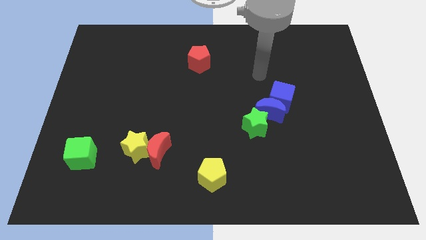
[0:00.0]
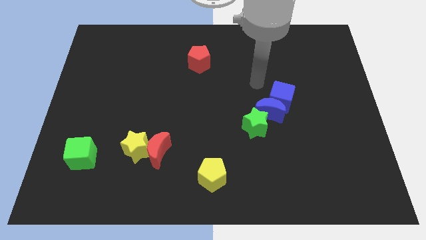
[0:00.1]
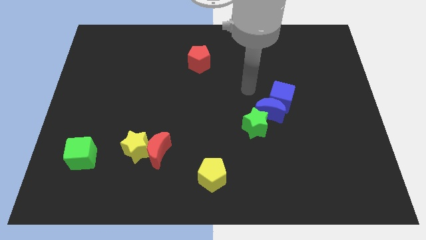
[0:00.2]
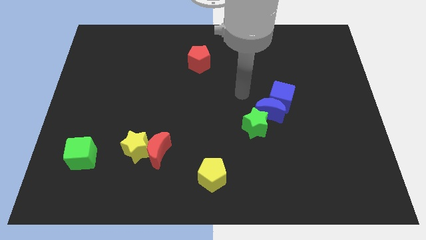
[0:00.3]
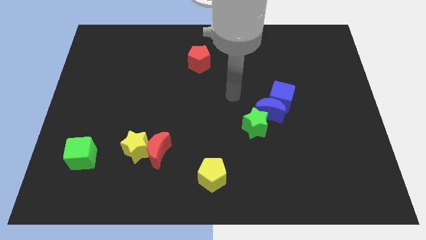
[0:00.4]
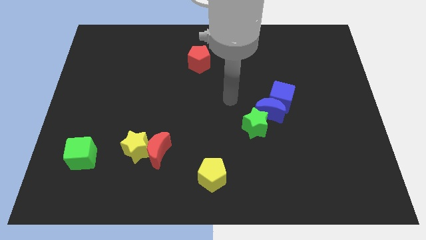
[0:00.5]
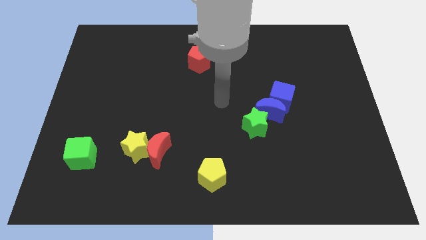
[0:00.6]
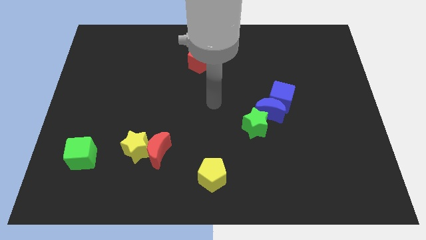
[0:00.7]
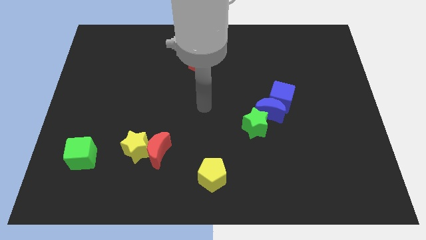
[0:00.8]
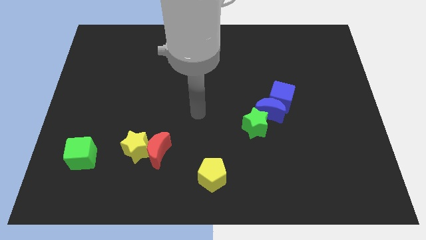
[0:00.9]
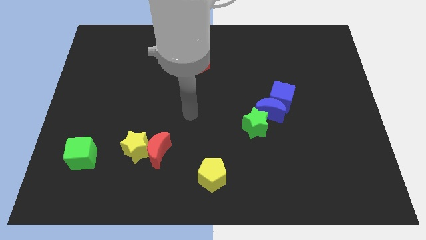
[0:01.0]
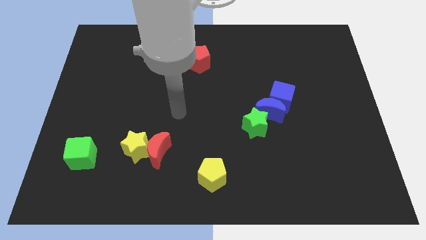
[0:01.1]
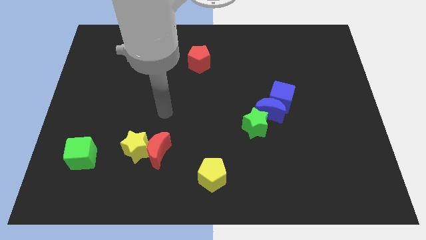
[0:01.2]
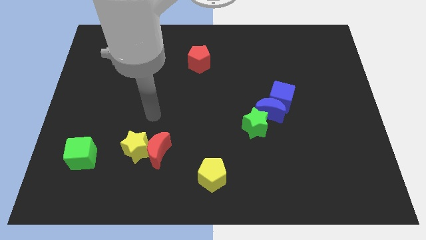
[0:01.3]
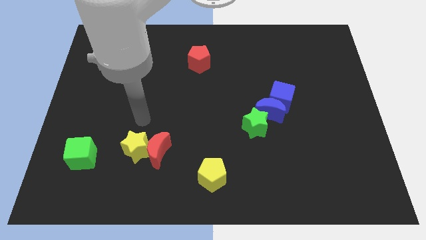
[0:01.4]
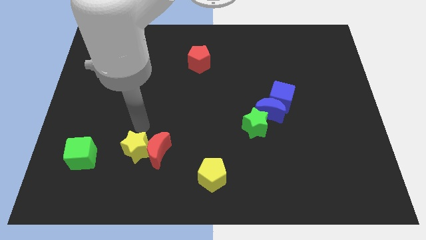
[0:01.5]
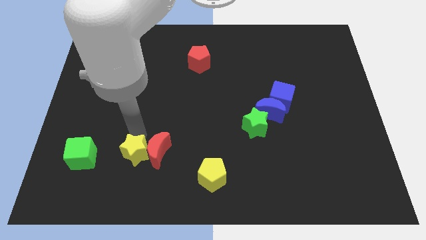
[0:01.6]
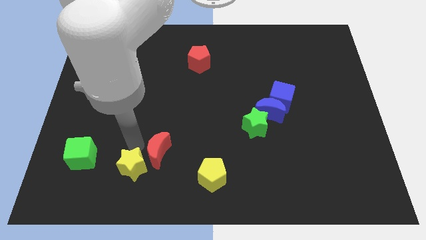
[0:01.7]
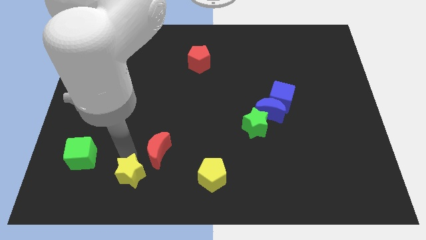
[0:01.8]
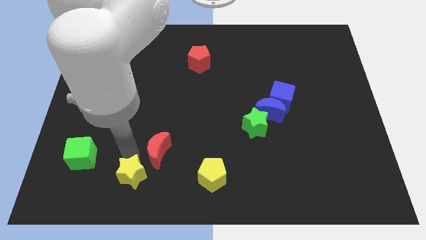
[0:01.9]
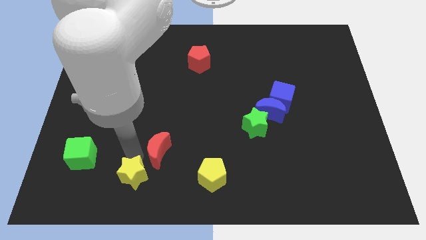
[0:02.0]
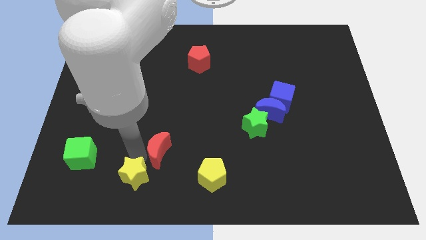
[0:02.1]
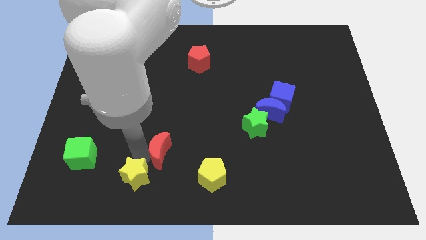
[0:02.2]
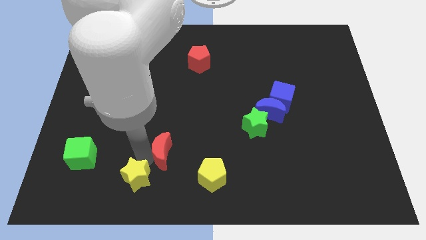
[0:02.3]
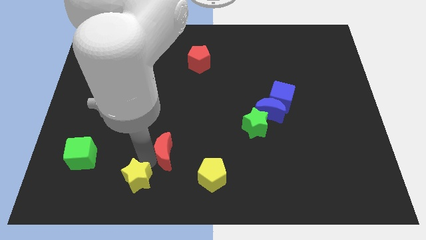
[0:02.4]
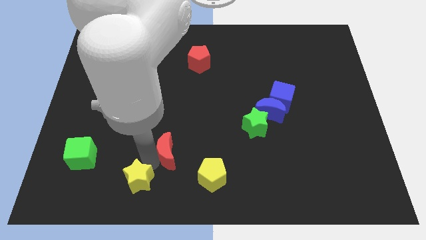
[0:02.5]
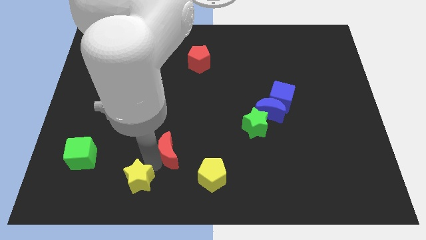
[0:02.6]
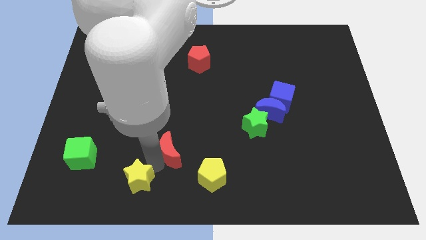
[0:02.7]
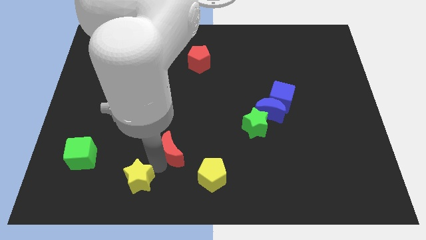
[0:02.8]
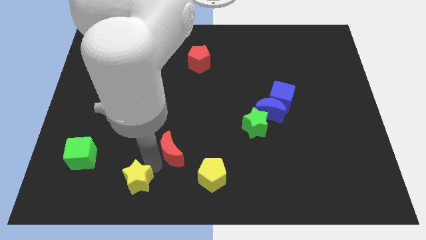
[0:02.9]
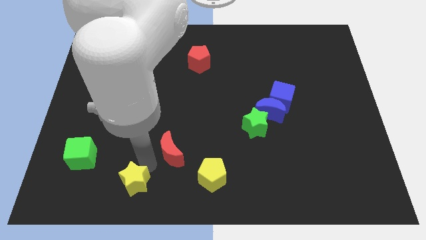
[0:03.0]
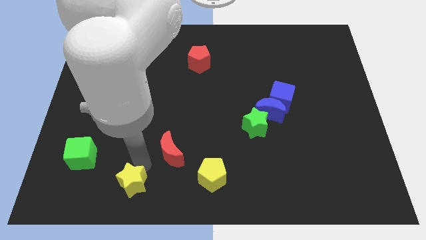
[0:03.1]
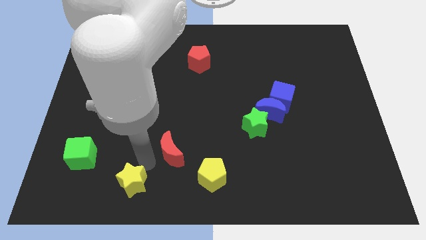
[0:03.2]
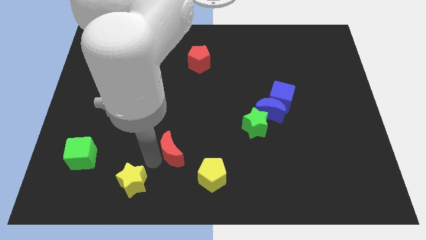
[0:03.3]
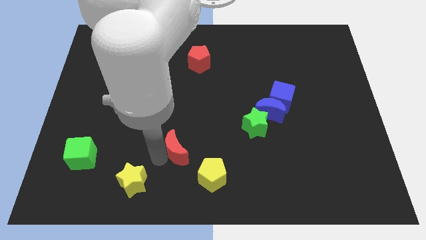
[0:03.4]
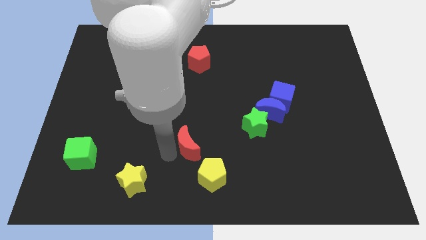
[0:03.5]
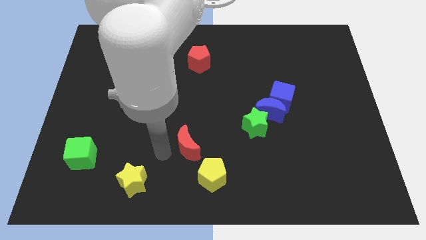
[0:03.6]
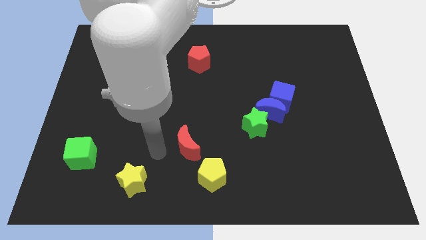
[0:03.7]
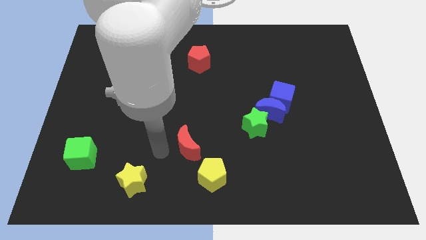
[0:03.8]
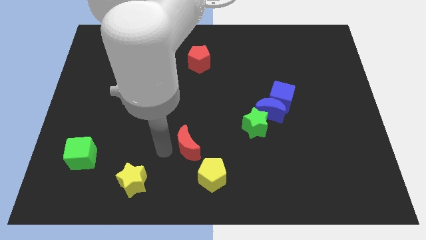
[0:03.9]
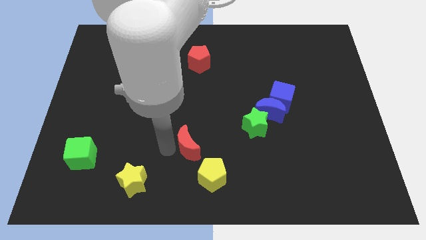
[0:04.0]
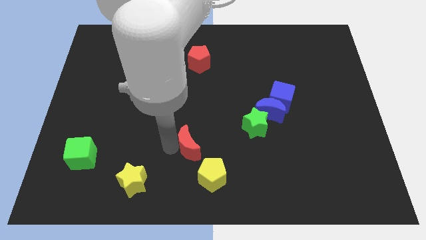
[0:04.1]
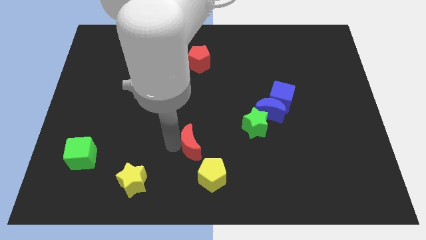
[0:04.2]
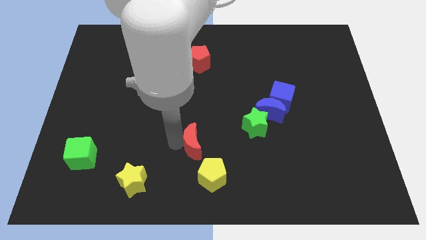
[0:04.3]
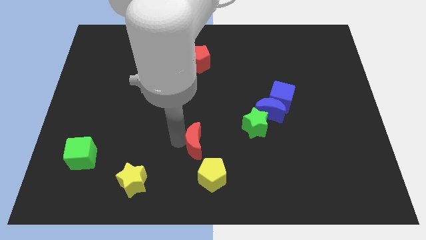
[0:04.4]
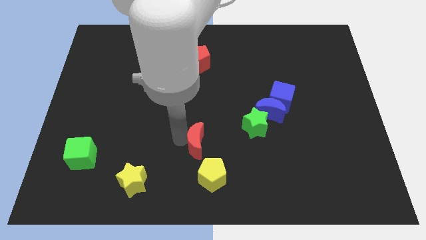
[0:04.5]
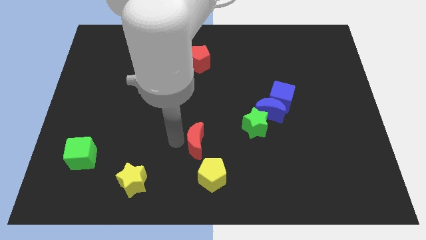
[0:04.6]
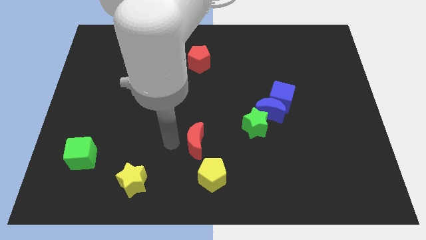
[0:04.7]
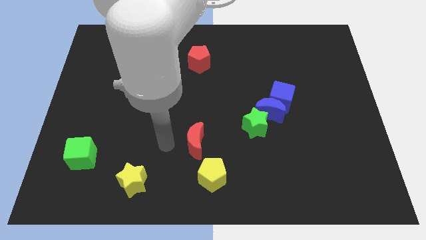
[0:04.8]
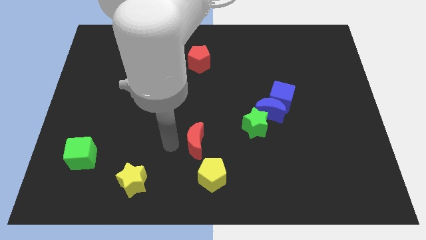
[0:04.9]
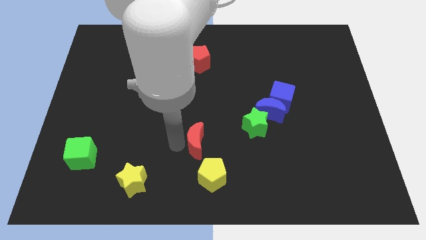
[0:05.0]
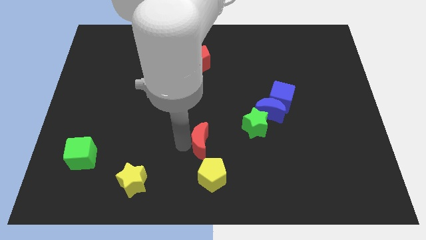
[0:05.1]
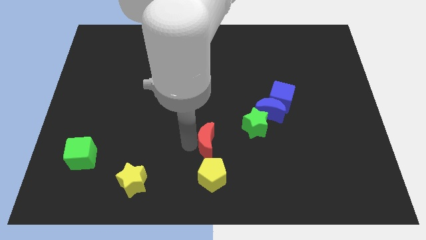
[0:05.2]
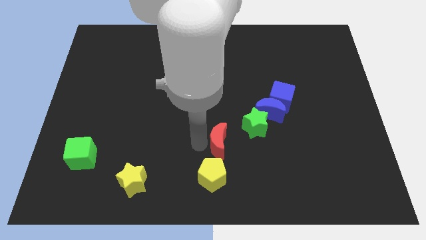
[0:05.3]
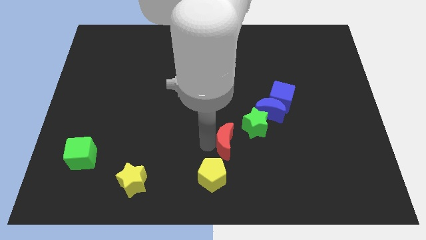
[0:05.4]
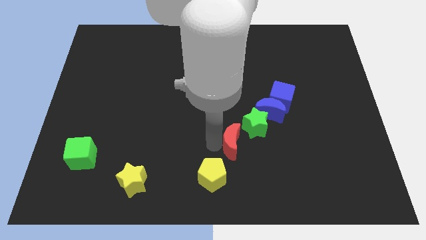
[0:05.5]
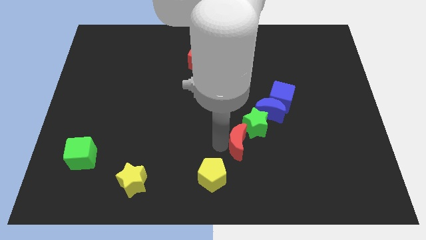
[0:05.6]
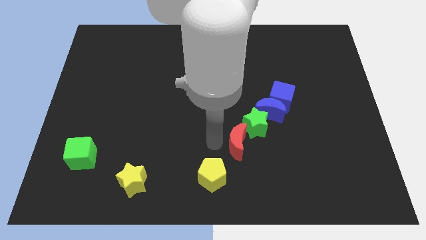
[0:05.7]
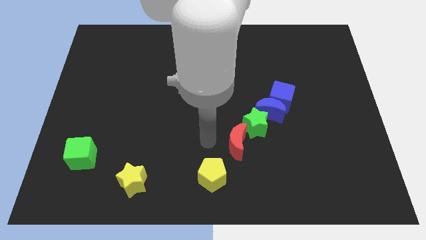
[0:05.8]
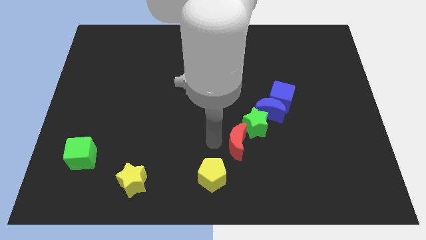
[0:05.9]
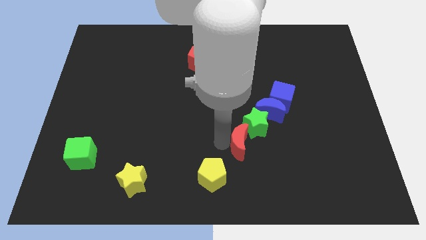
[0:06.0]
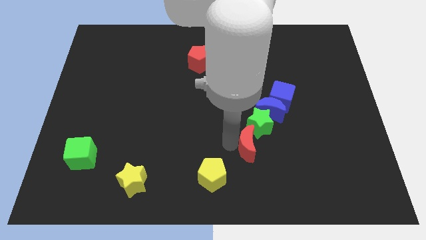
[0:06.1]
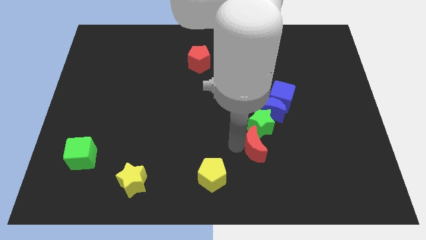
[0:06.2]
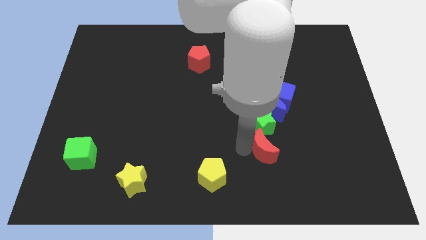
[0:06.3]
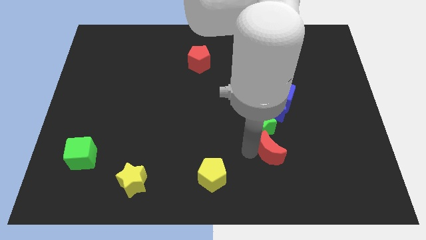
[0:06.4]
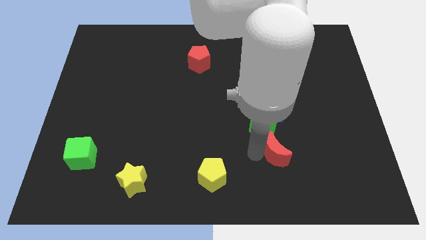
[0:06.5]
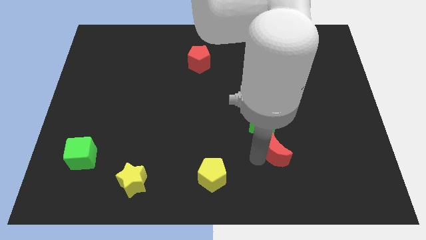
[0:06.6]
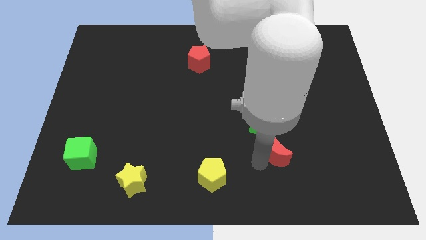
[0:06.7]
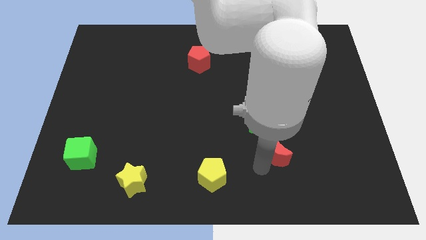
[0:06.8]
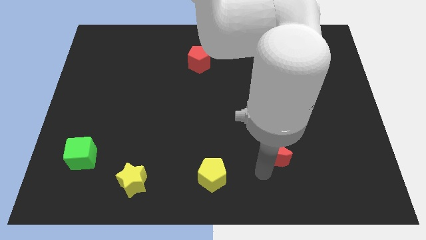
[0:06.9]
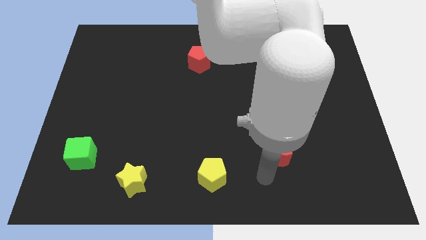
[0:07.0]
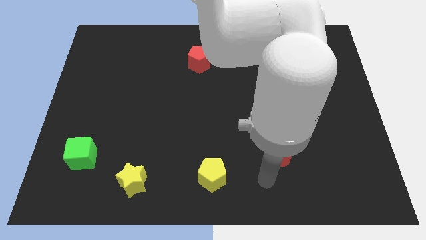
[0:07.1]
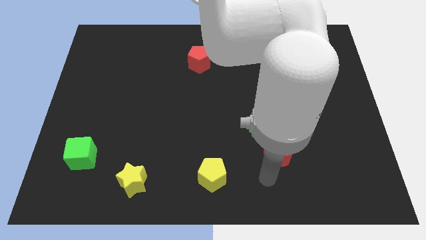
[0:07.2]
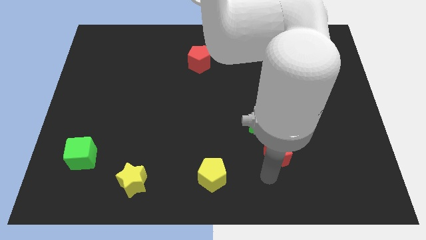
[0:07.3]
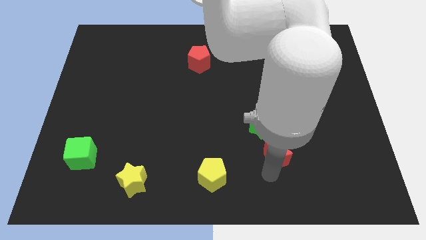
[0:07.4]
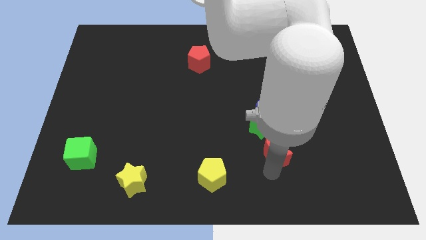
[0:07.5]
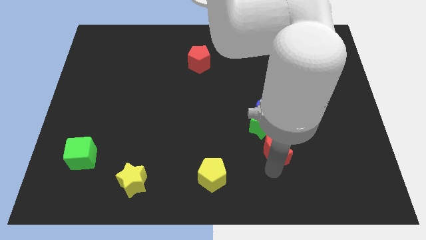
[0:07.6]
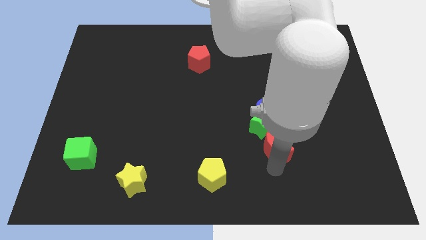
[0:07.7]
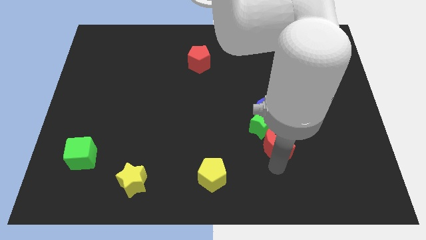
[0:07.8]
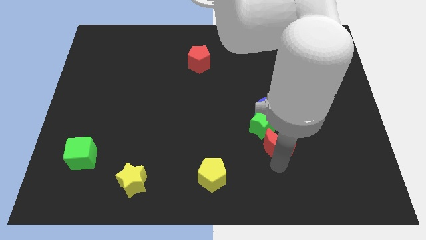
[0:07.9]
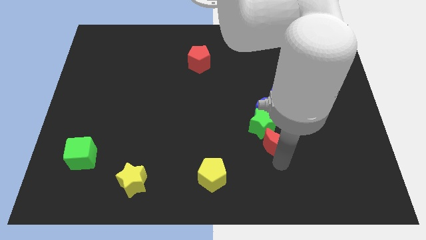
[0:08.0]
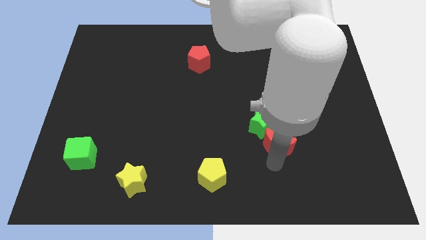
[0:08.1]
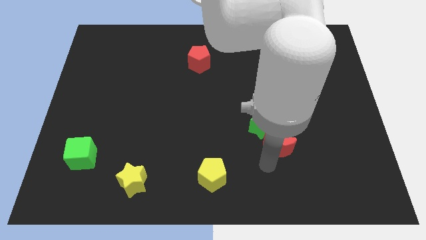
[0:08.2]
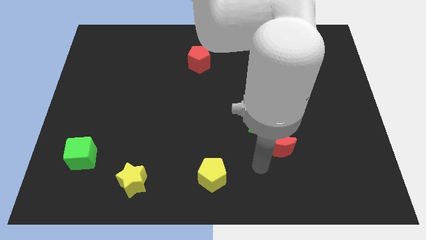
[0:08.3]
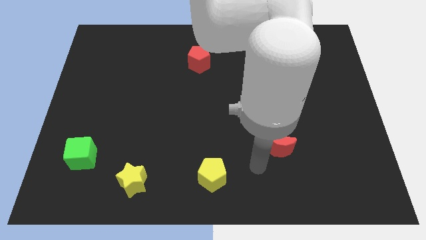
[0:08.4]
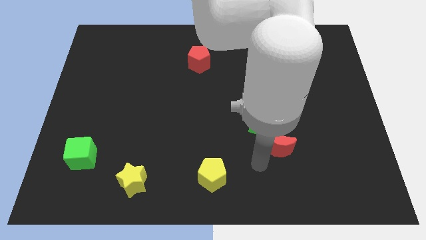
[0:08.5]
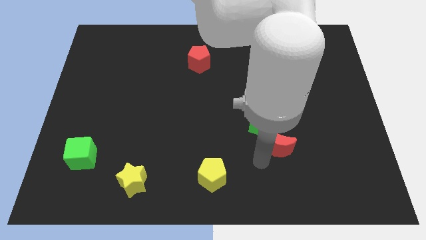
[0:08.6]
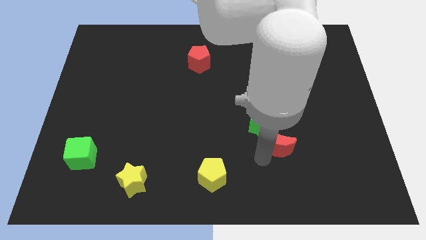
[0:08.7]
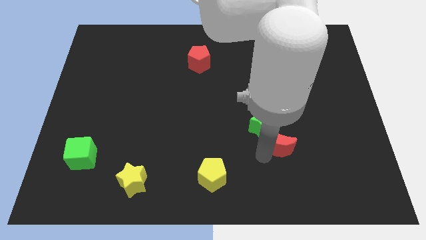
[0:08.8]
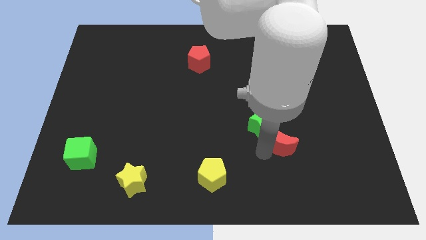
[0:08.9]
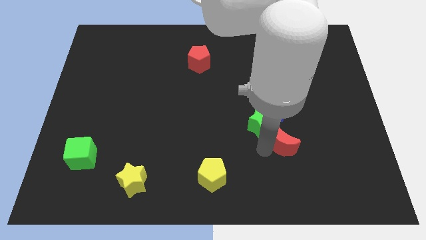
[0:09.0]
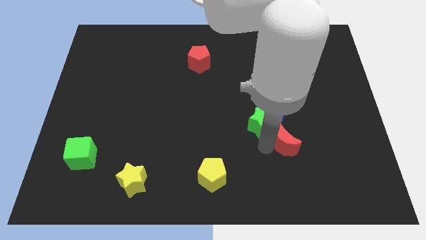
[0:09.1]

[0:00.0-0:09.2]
move the red moon diagonally down and to the right of the blue moon
